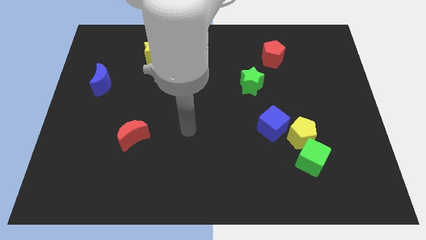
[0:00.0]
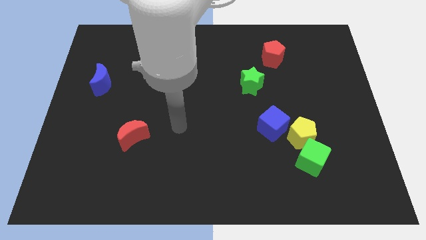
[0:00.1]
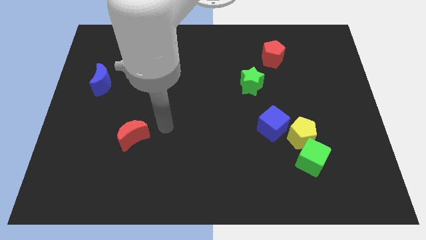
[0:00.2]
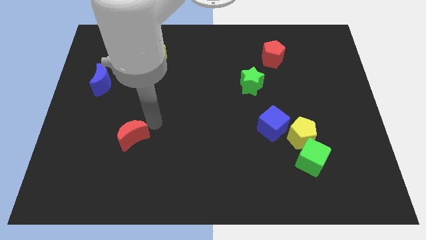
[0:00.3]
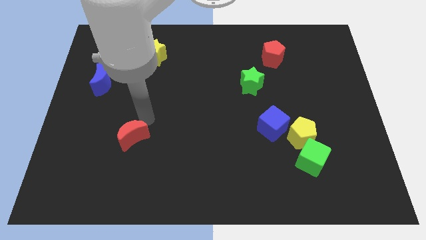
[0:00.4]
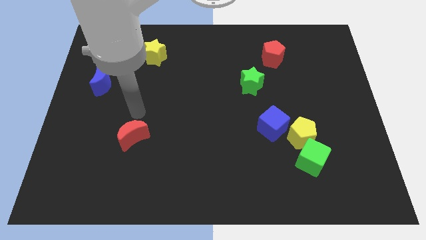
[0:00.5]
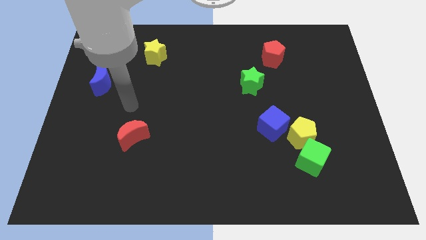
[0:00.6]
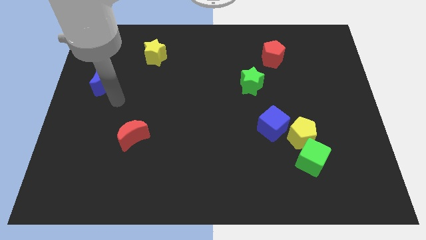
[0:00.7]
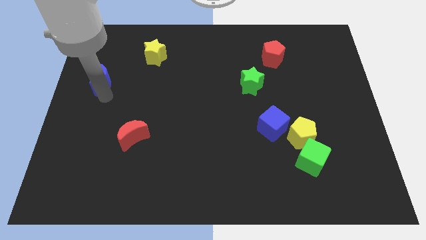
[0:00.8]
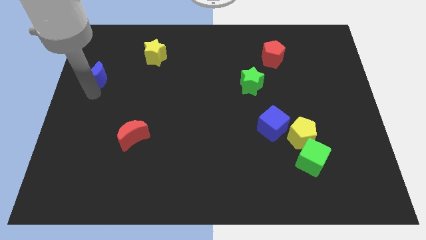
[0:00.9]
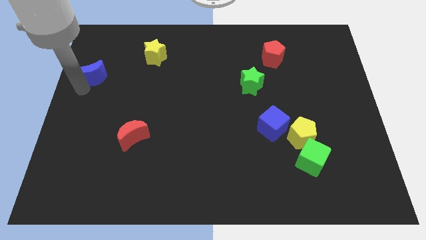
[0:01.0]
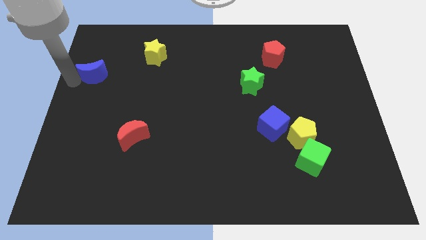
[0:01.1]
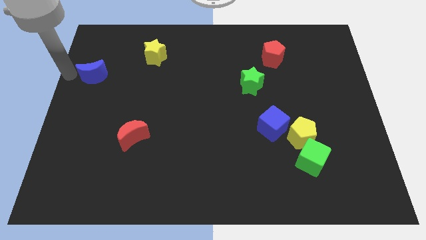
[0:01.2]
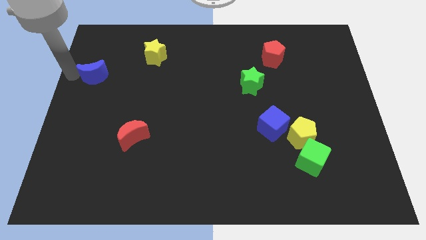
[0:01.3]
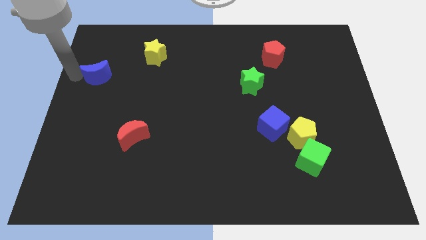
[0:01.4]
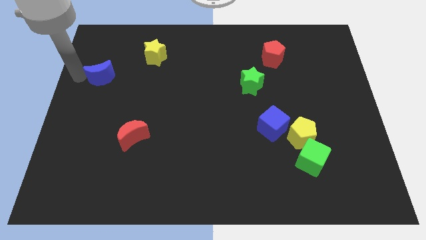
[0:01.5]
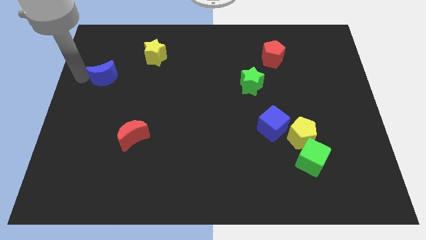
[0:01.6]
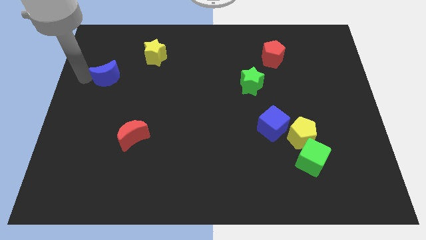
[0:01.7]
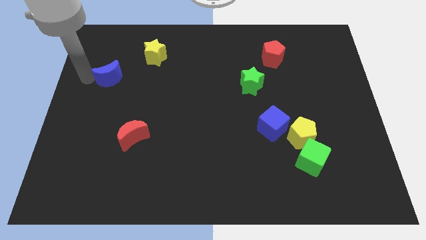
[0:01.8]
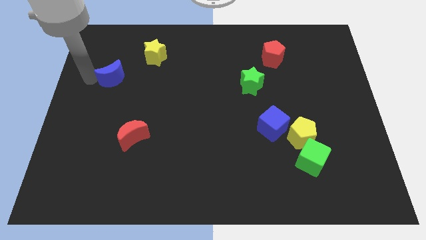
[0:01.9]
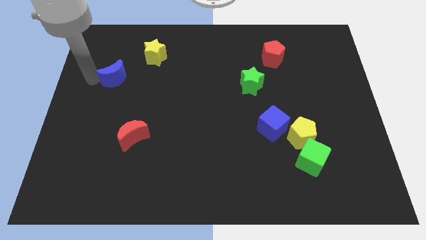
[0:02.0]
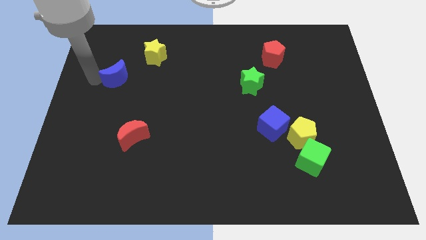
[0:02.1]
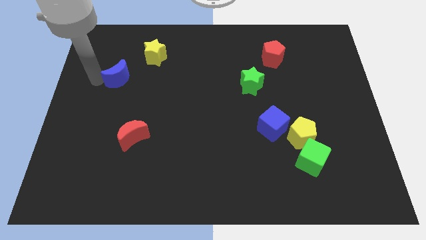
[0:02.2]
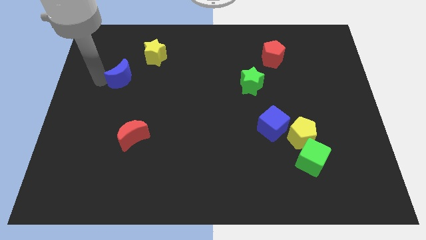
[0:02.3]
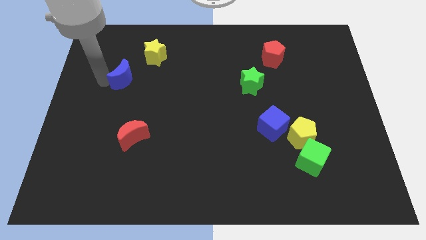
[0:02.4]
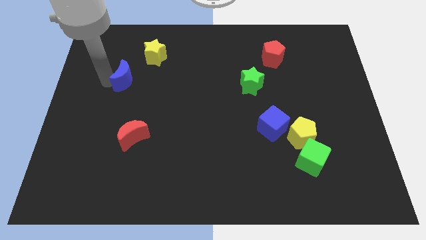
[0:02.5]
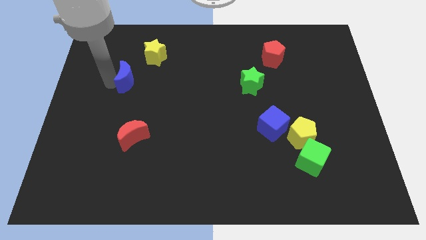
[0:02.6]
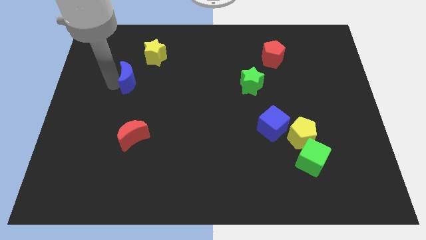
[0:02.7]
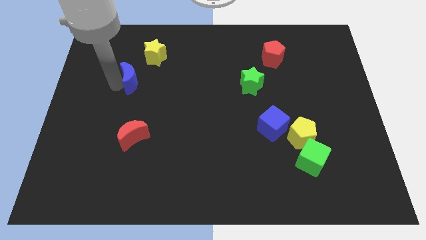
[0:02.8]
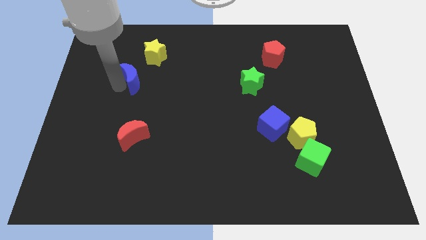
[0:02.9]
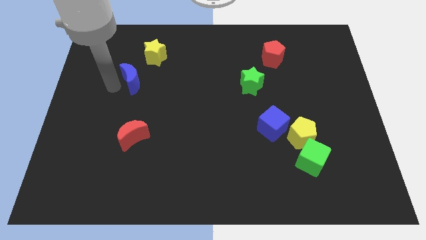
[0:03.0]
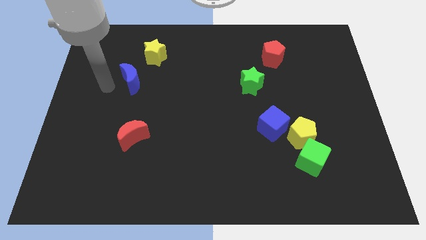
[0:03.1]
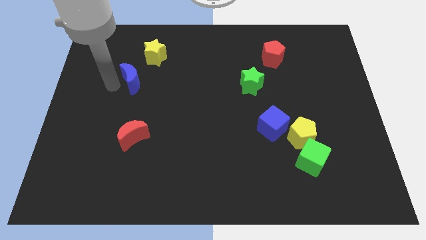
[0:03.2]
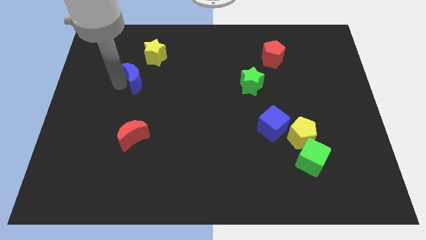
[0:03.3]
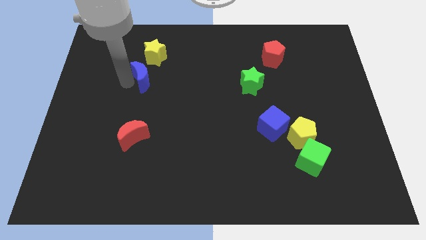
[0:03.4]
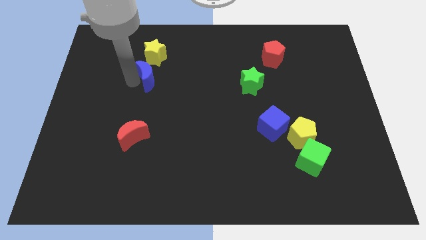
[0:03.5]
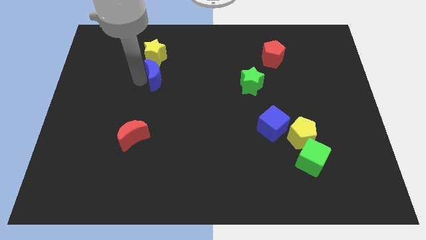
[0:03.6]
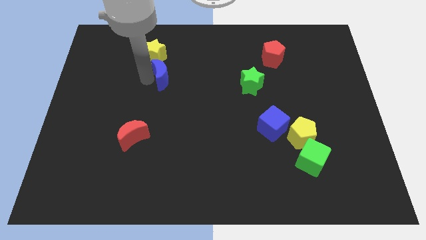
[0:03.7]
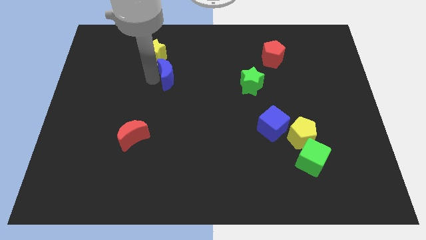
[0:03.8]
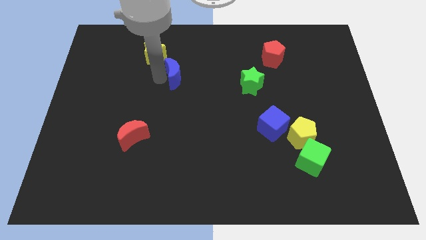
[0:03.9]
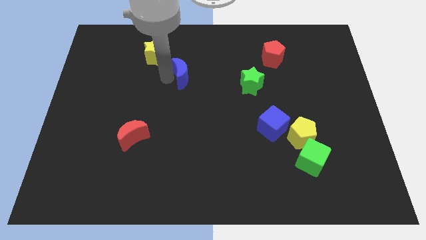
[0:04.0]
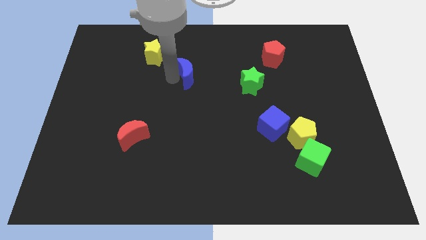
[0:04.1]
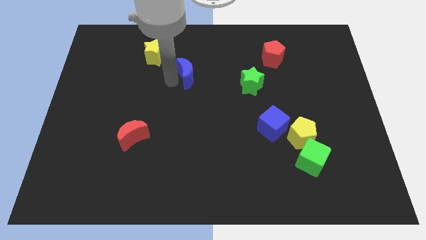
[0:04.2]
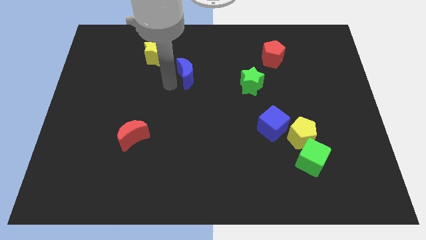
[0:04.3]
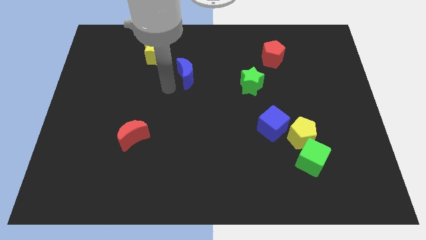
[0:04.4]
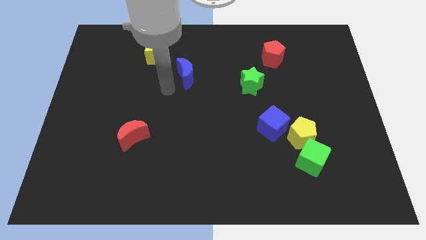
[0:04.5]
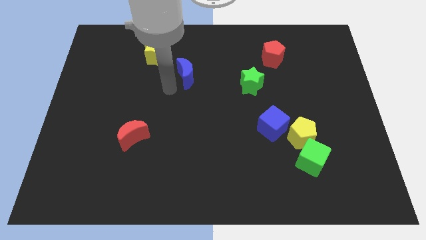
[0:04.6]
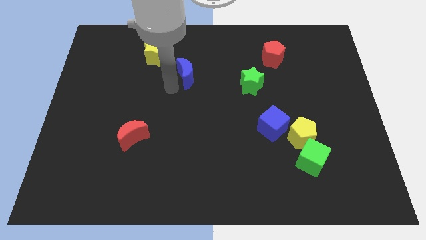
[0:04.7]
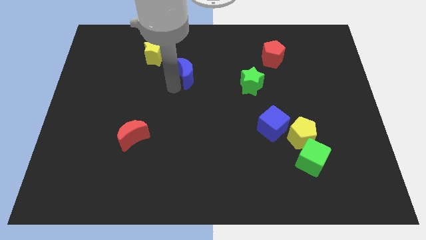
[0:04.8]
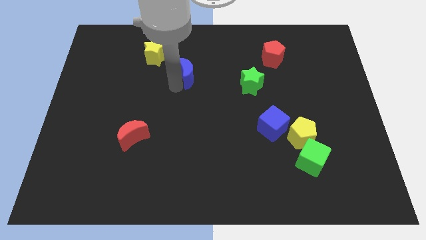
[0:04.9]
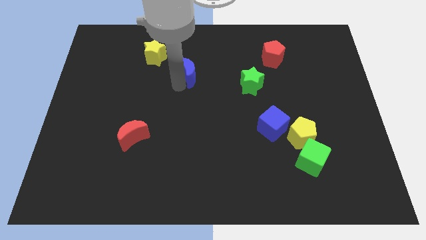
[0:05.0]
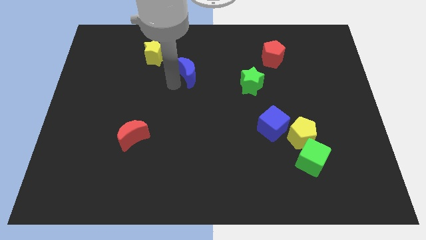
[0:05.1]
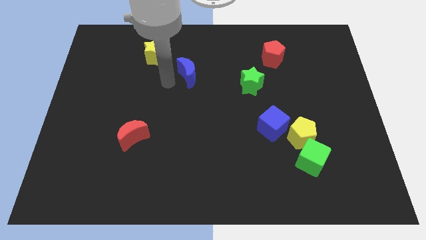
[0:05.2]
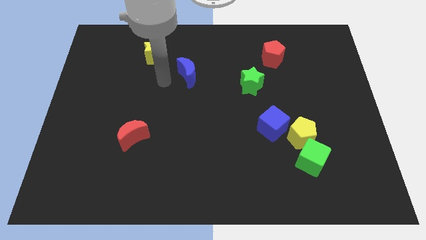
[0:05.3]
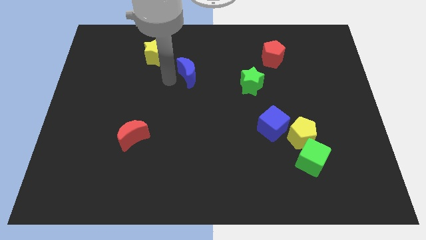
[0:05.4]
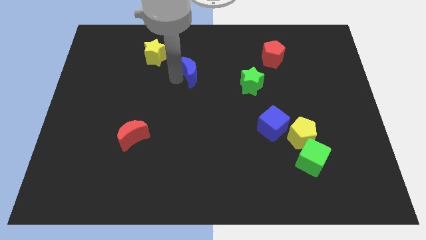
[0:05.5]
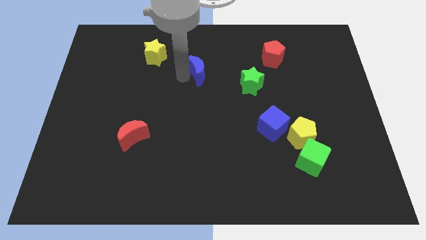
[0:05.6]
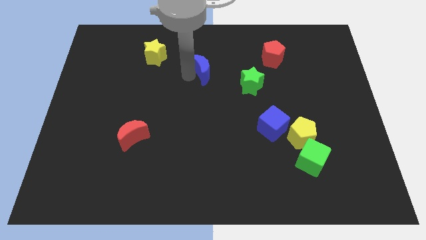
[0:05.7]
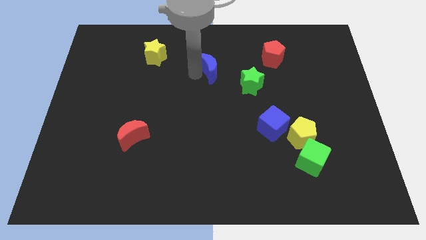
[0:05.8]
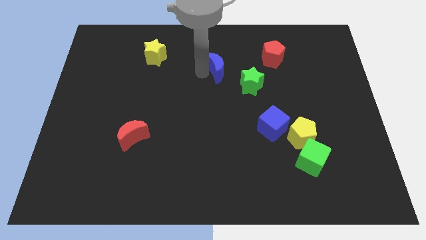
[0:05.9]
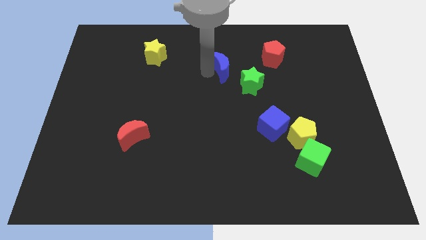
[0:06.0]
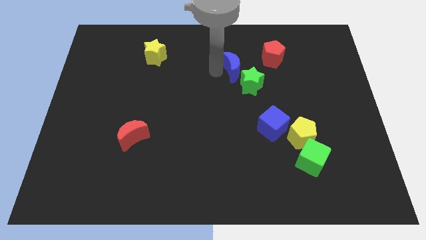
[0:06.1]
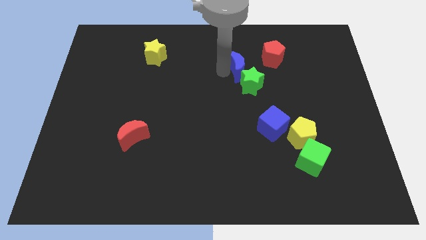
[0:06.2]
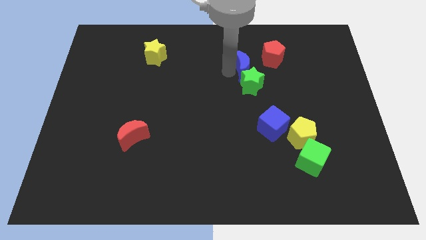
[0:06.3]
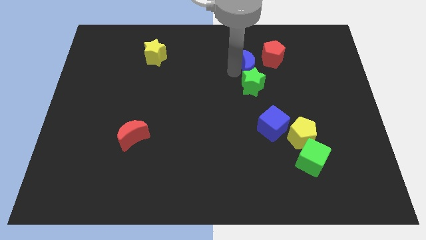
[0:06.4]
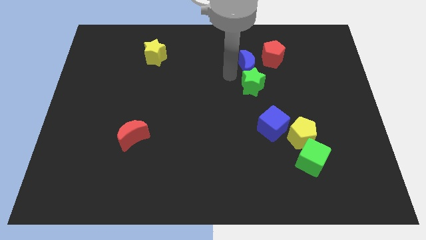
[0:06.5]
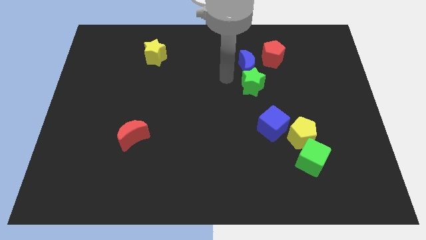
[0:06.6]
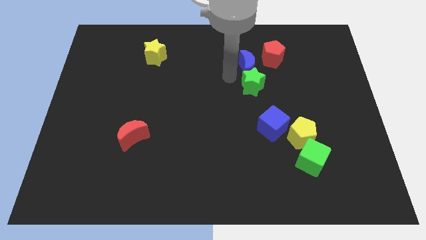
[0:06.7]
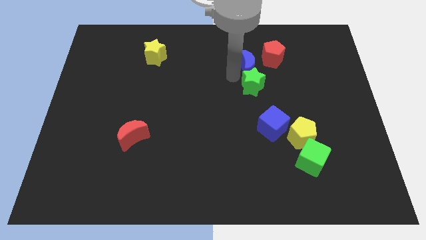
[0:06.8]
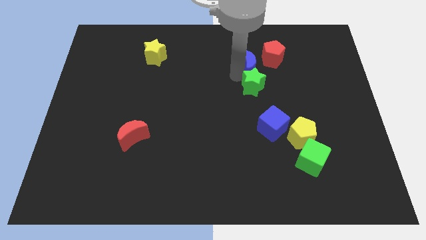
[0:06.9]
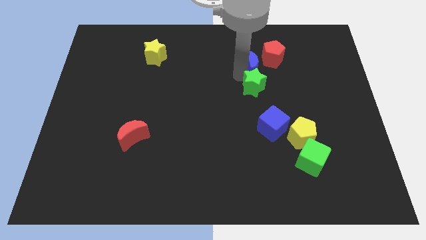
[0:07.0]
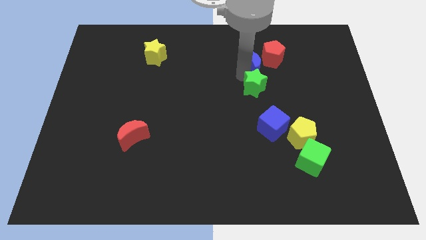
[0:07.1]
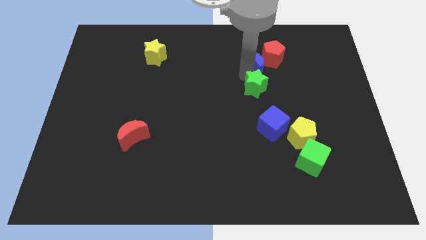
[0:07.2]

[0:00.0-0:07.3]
move the blue moon towards the red pentagon
